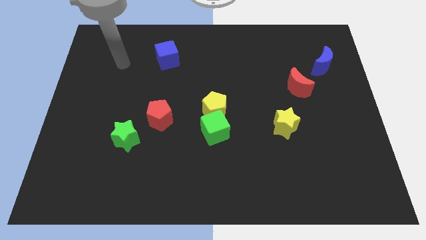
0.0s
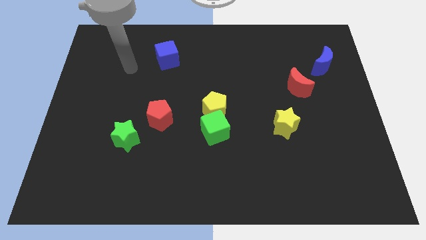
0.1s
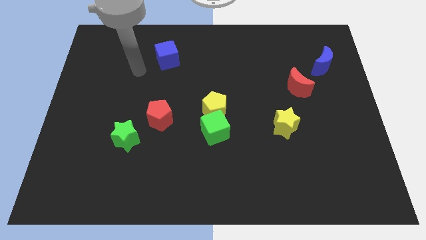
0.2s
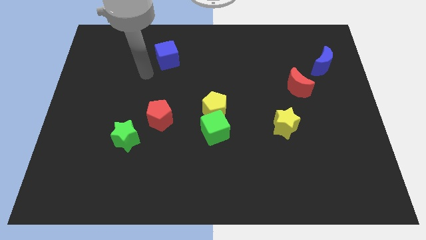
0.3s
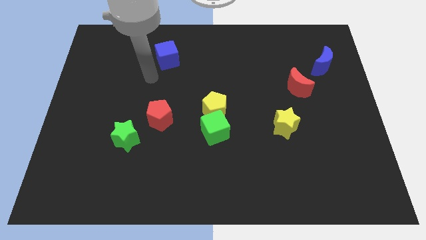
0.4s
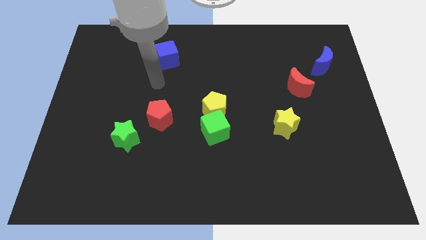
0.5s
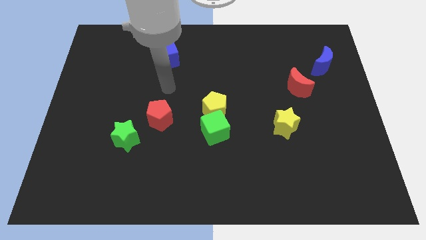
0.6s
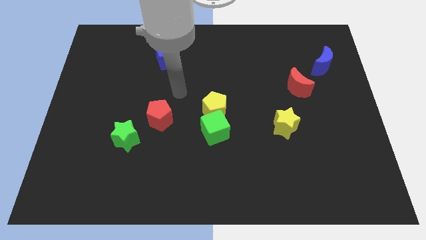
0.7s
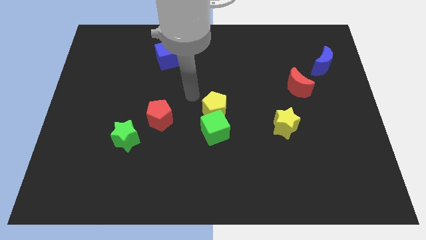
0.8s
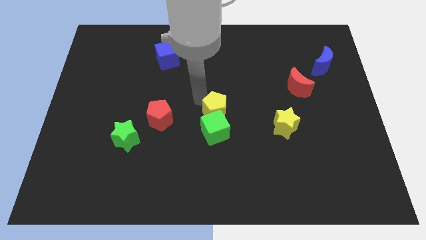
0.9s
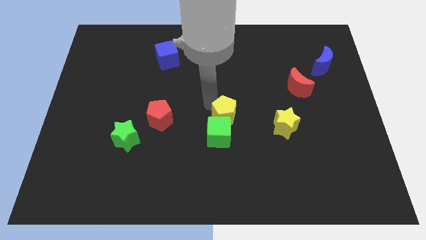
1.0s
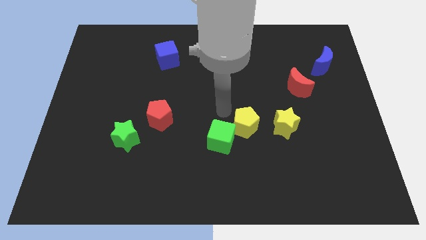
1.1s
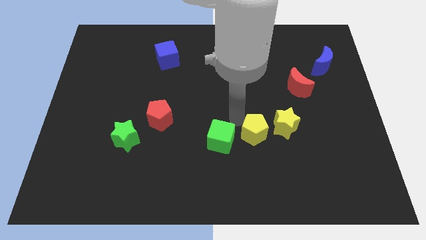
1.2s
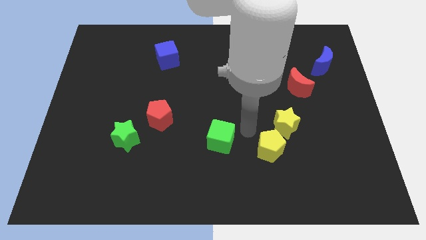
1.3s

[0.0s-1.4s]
move the green cube away from the yellow pentagon

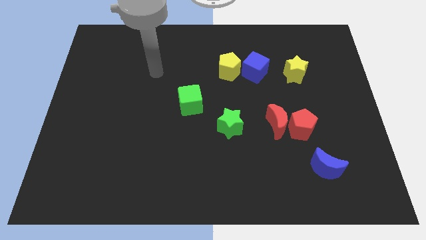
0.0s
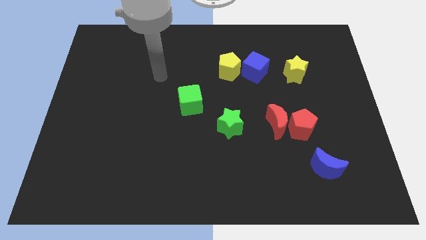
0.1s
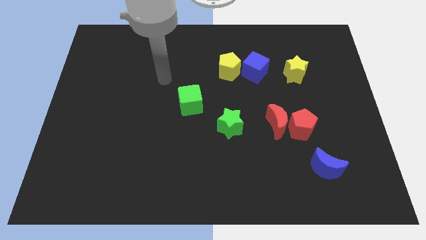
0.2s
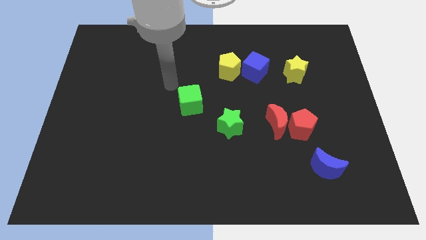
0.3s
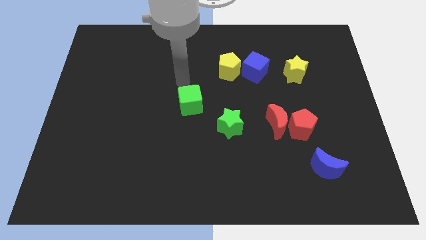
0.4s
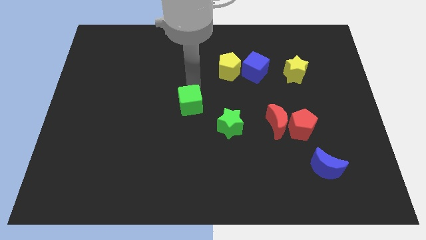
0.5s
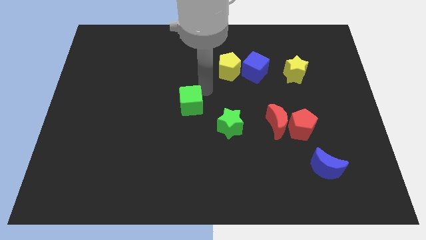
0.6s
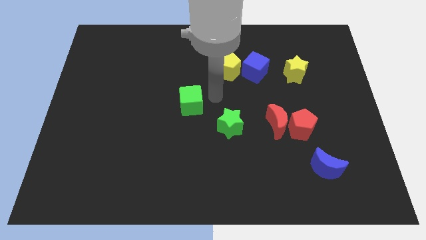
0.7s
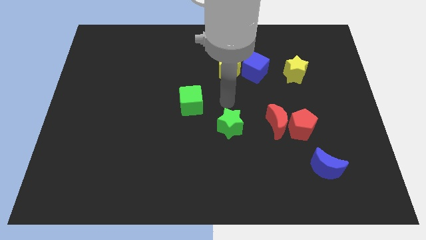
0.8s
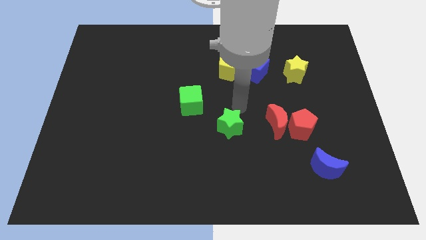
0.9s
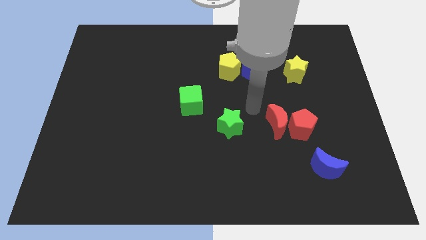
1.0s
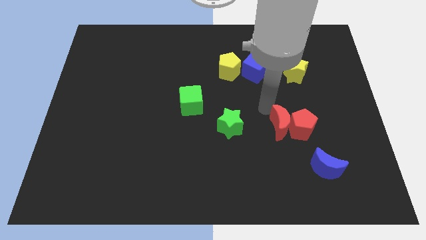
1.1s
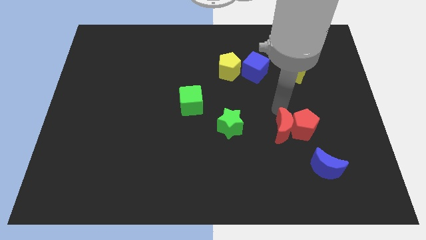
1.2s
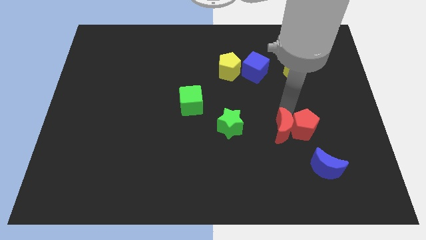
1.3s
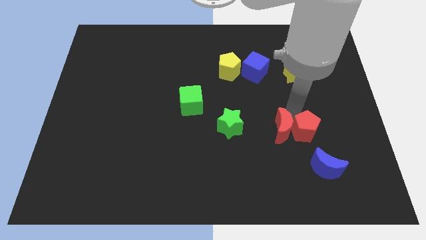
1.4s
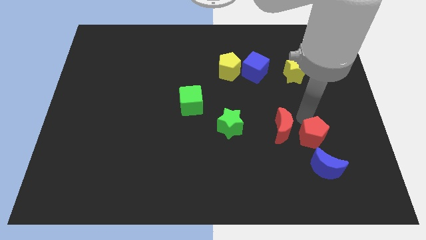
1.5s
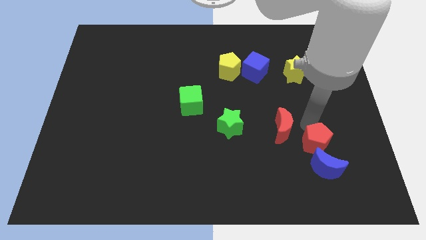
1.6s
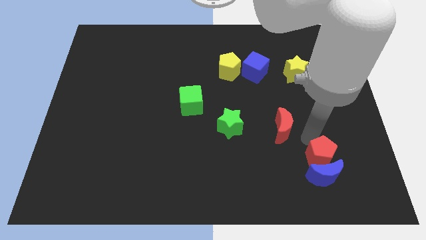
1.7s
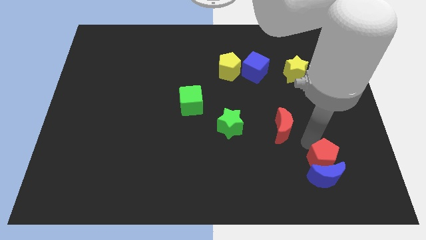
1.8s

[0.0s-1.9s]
move the red moon away from the red pentagon

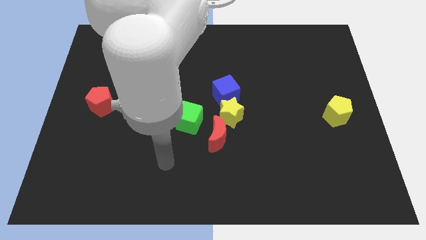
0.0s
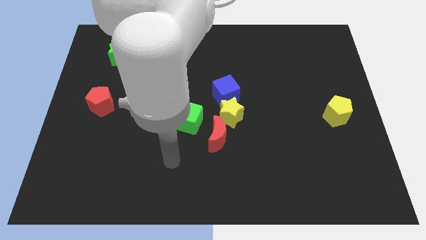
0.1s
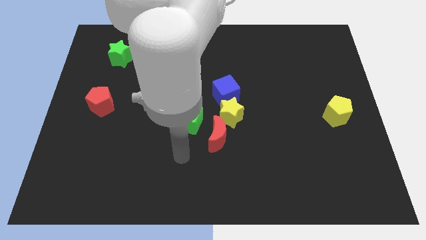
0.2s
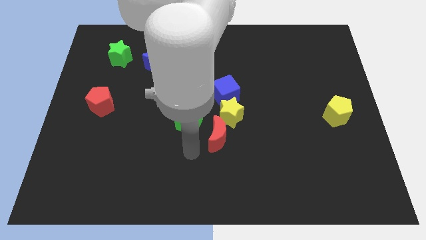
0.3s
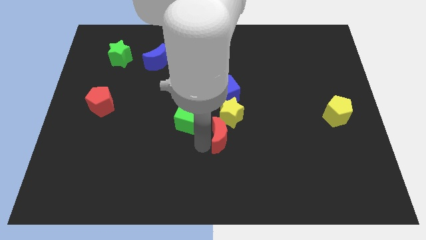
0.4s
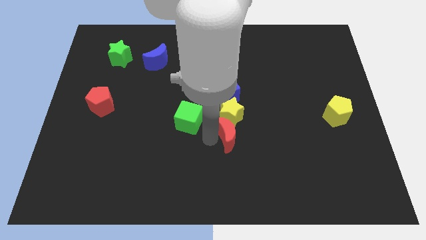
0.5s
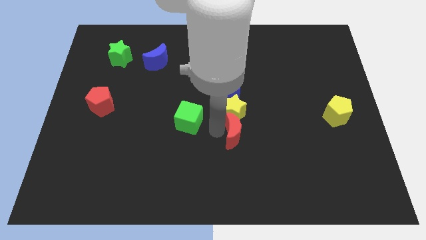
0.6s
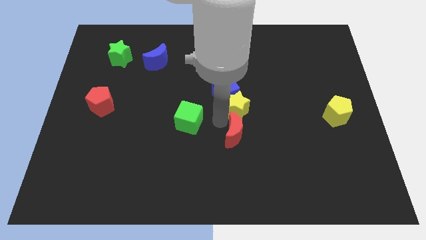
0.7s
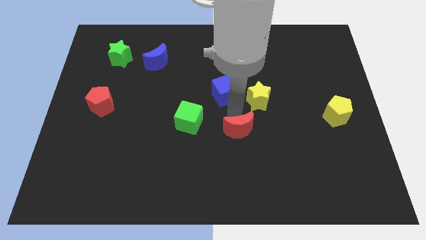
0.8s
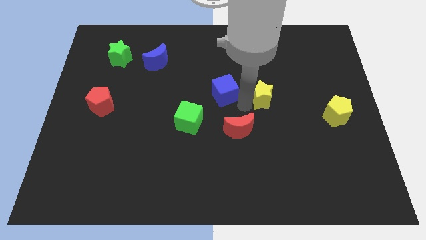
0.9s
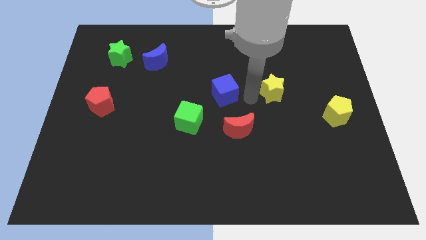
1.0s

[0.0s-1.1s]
separate the blue cube from the yellow star

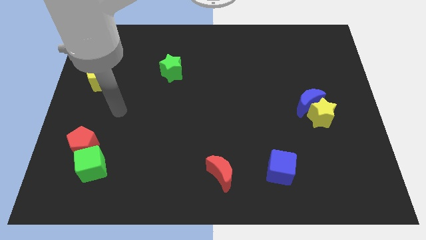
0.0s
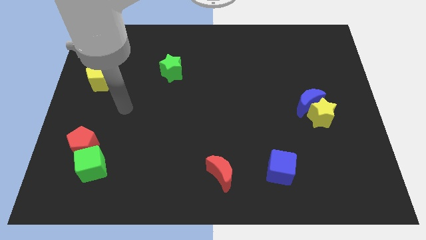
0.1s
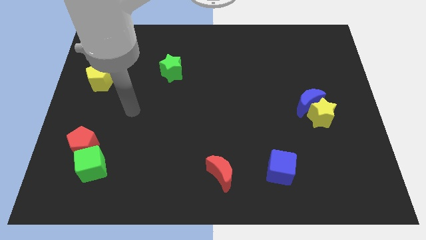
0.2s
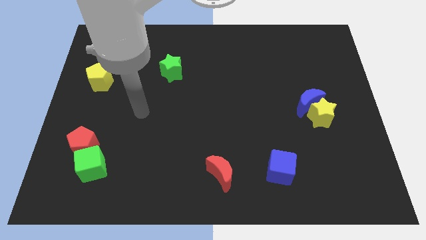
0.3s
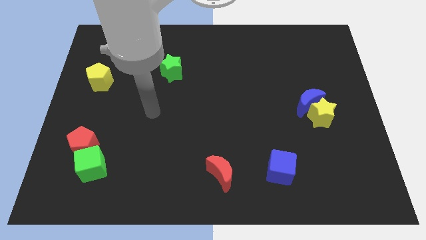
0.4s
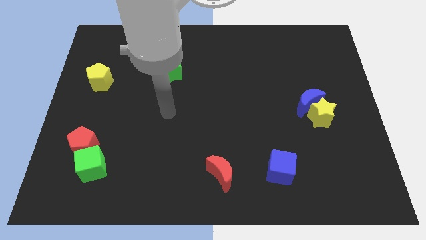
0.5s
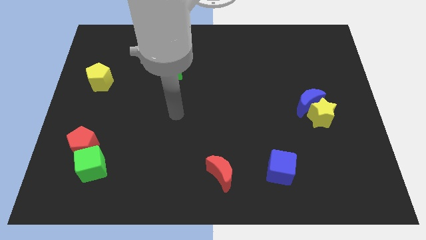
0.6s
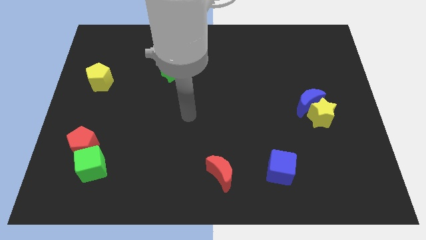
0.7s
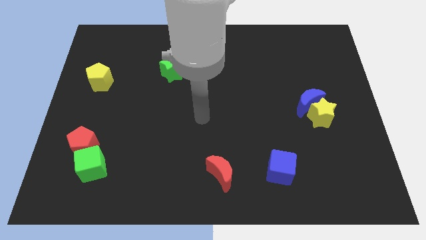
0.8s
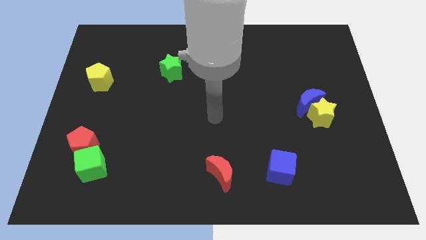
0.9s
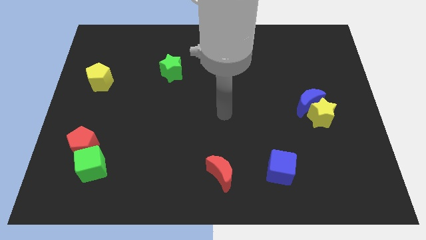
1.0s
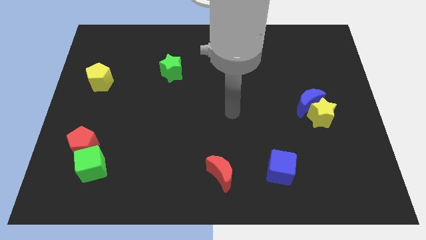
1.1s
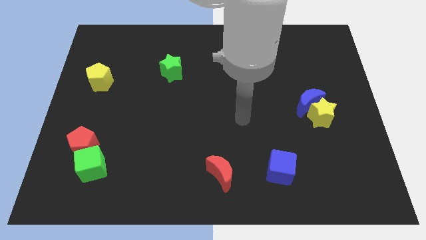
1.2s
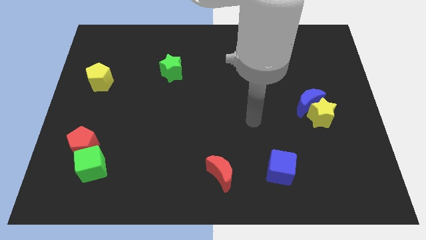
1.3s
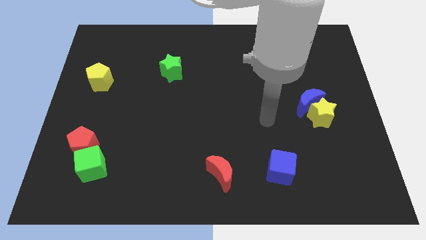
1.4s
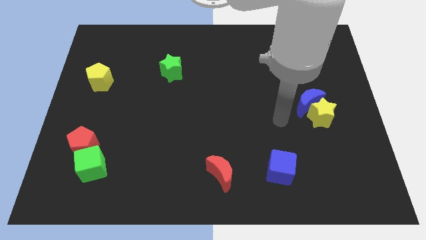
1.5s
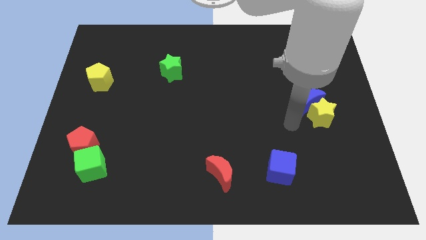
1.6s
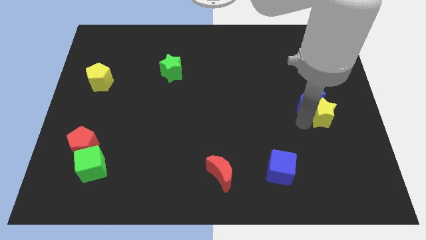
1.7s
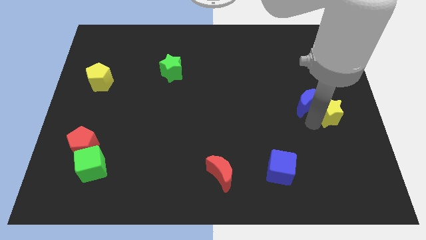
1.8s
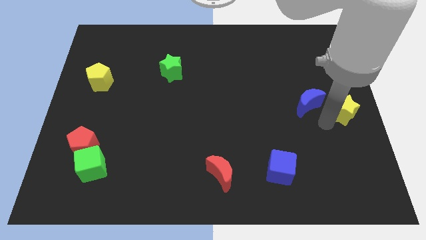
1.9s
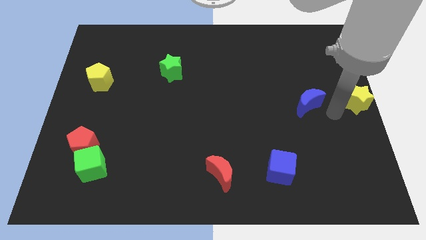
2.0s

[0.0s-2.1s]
pull the blue moon apart from the yellow star

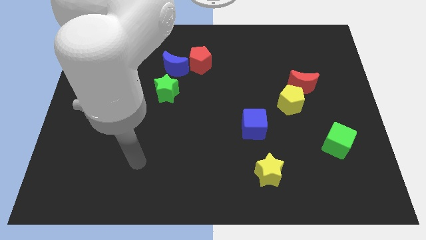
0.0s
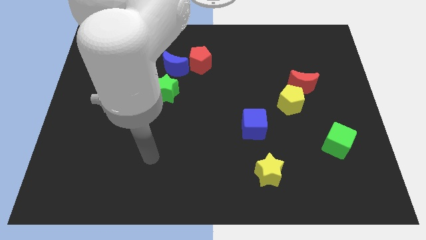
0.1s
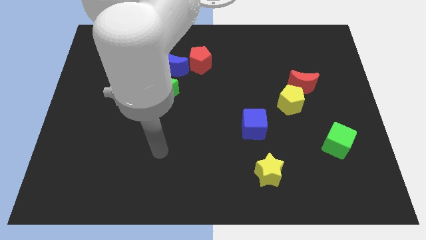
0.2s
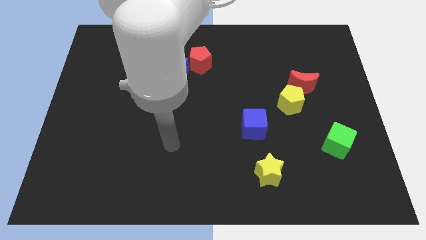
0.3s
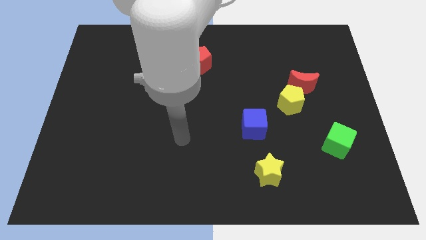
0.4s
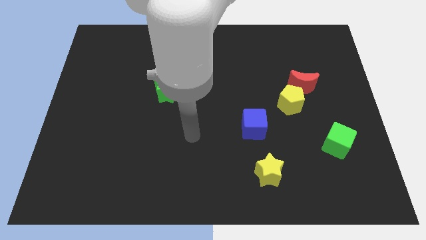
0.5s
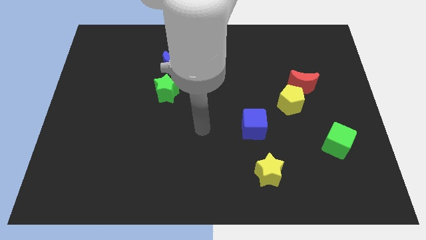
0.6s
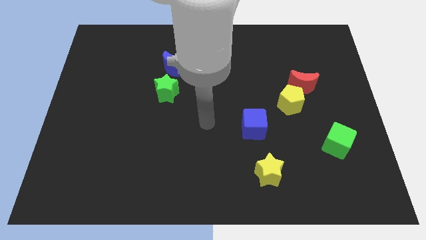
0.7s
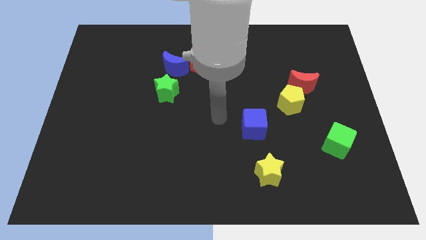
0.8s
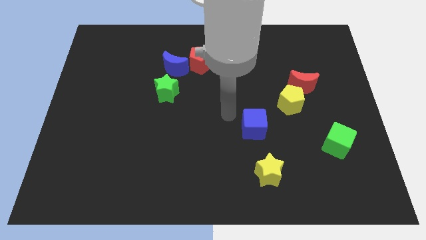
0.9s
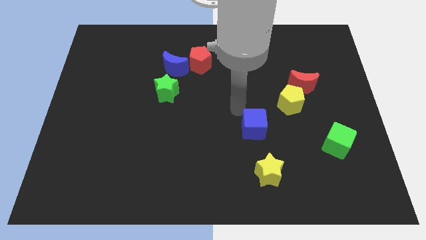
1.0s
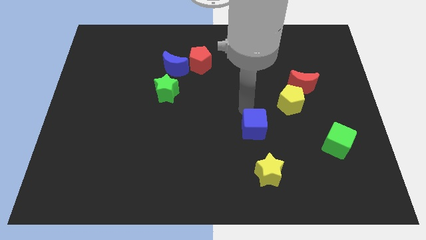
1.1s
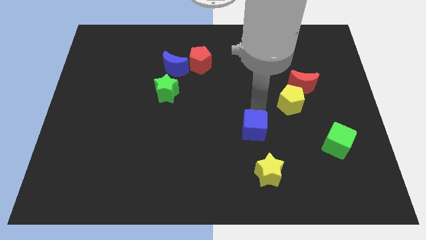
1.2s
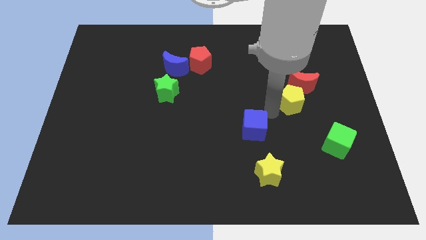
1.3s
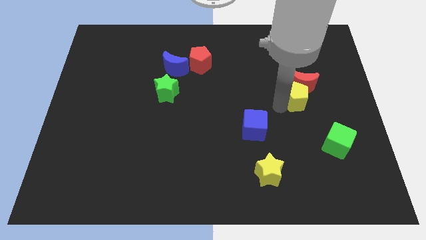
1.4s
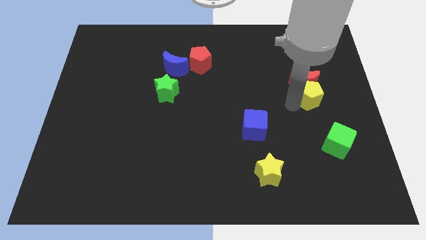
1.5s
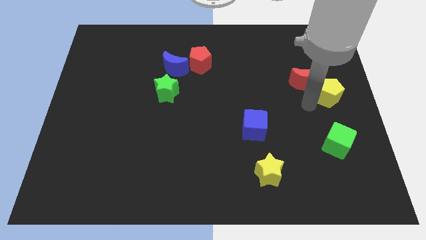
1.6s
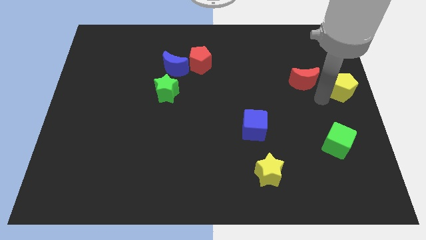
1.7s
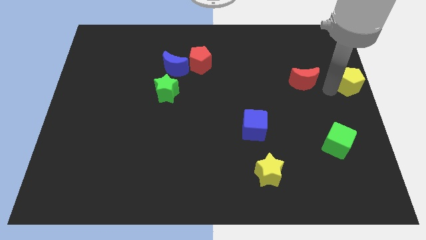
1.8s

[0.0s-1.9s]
pull the red moon apart from the yellow pentagon

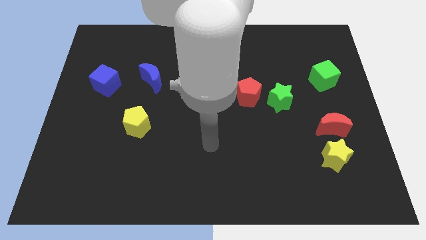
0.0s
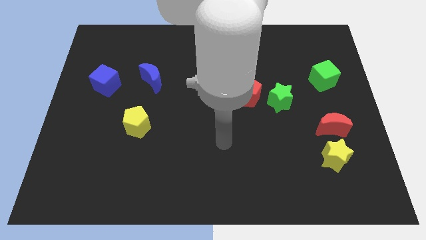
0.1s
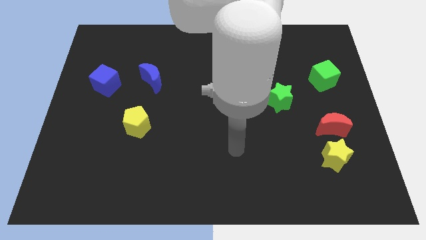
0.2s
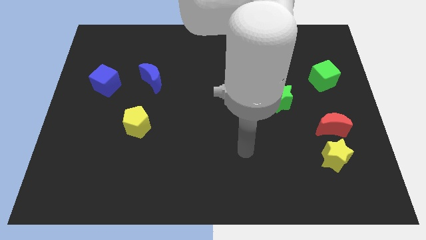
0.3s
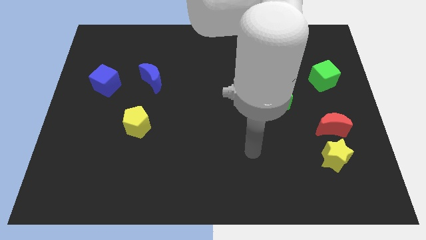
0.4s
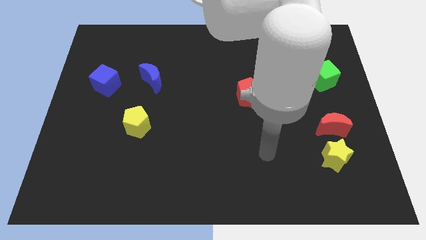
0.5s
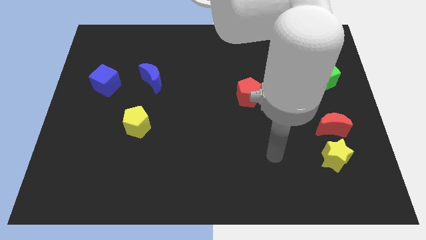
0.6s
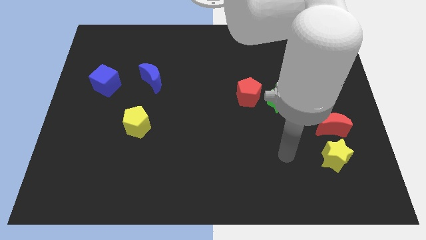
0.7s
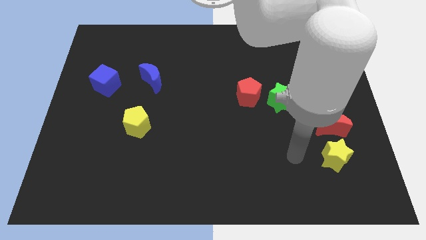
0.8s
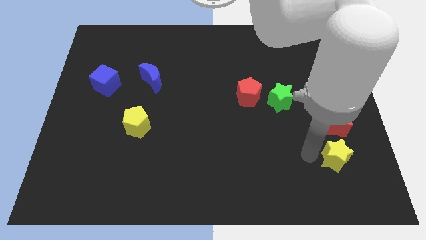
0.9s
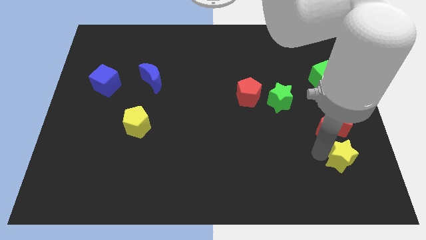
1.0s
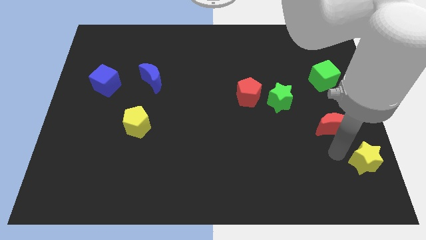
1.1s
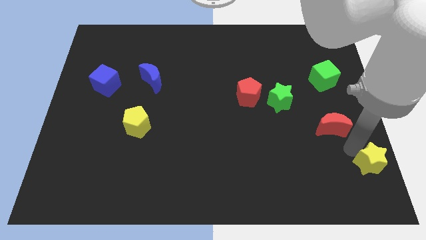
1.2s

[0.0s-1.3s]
move the red moon away from the yellow star
